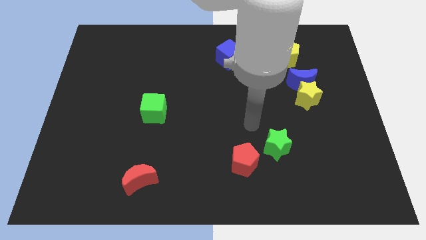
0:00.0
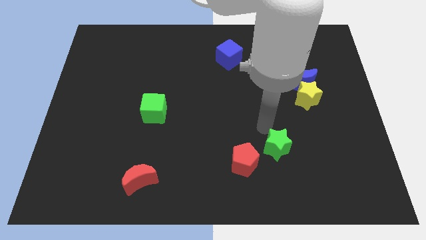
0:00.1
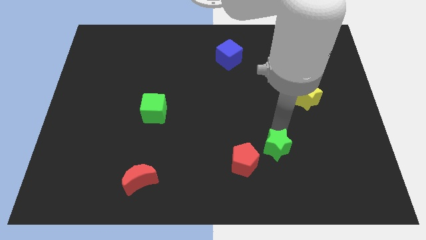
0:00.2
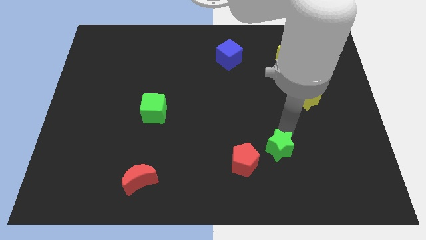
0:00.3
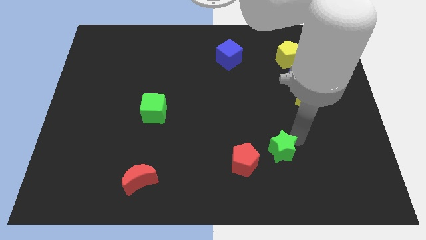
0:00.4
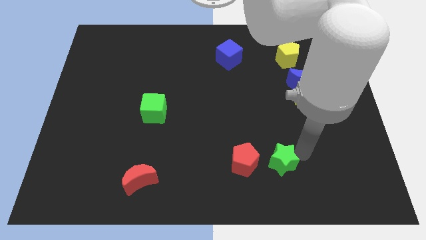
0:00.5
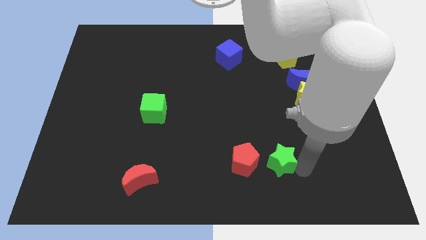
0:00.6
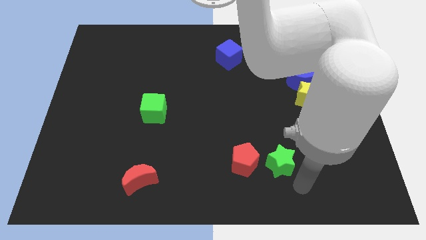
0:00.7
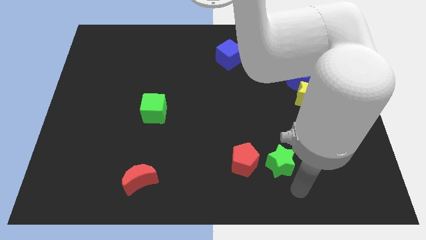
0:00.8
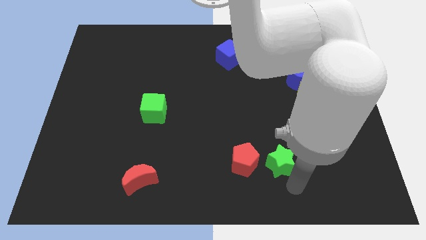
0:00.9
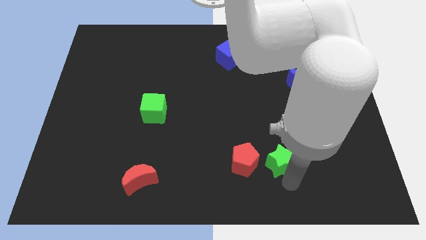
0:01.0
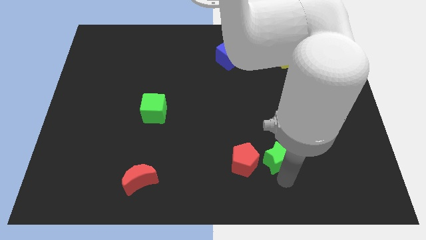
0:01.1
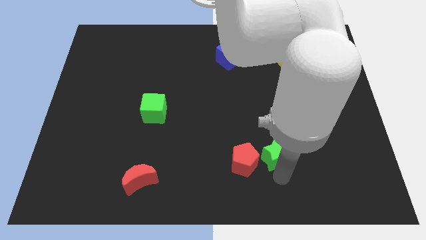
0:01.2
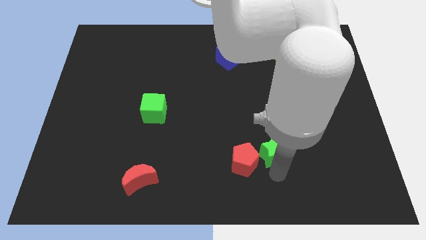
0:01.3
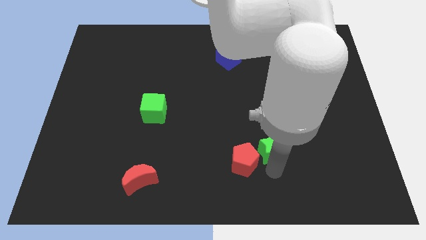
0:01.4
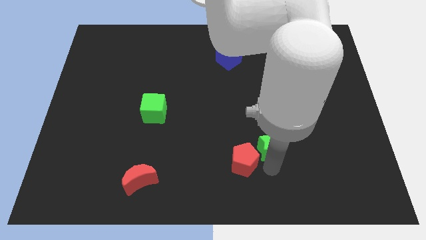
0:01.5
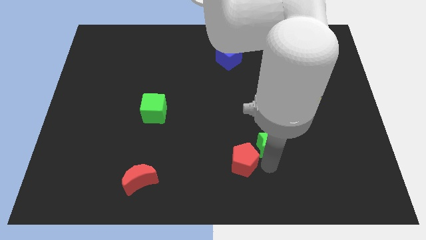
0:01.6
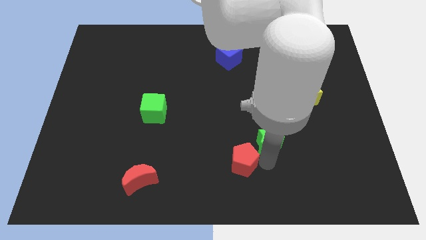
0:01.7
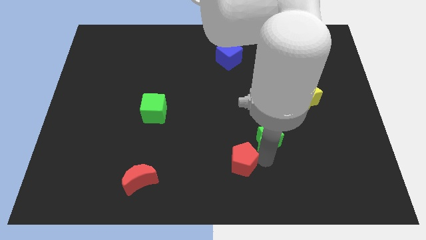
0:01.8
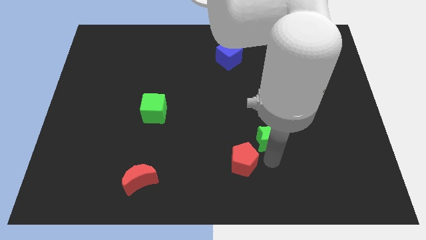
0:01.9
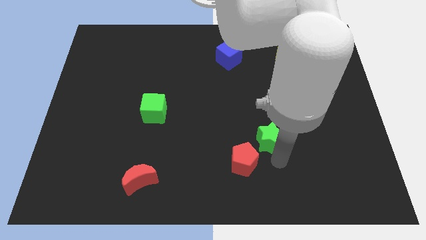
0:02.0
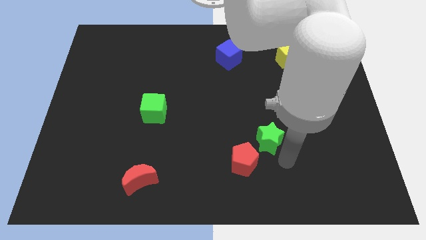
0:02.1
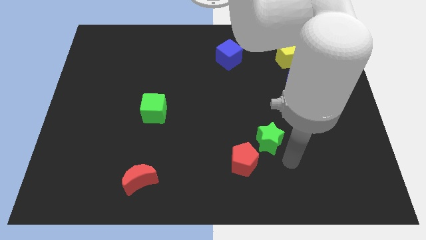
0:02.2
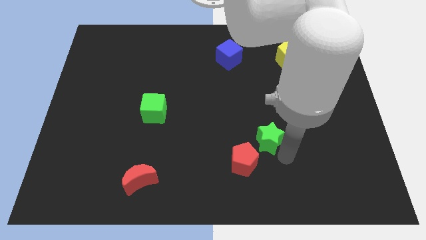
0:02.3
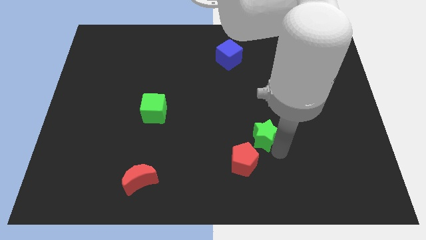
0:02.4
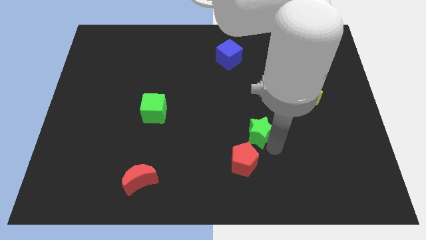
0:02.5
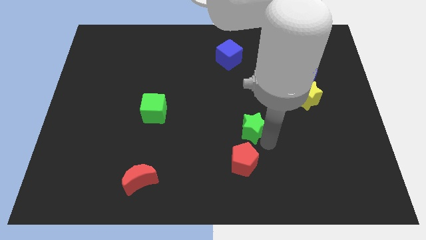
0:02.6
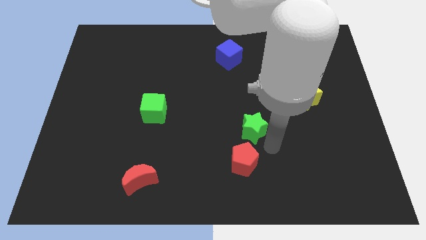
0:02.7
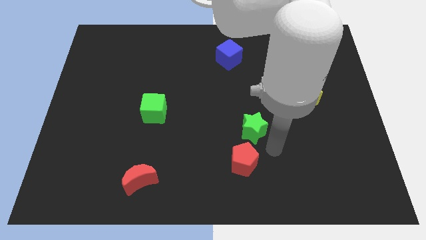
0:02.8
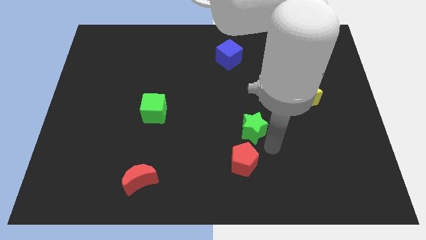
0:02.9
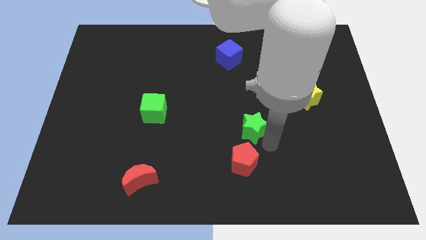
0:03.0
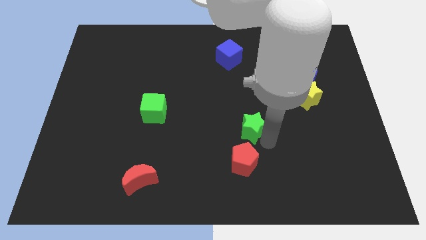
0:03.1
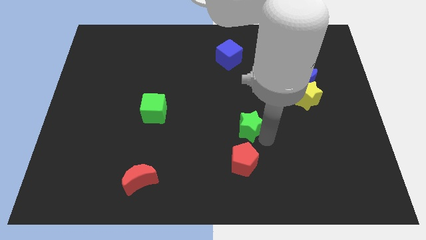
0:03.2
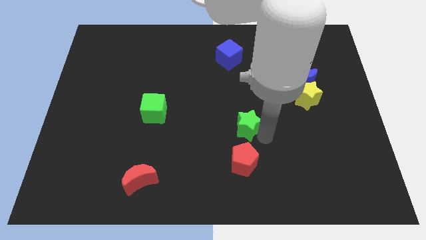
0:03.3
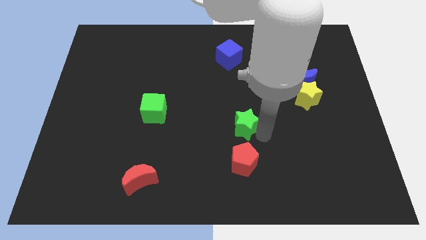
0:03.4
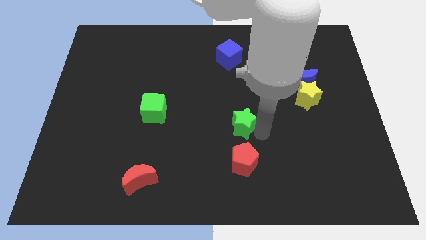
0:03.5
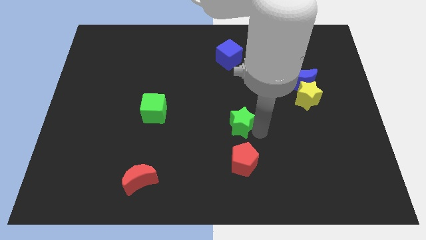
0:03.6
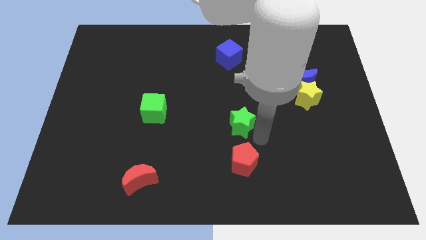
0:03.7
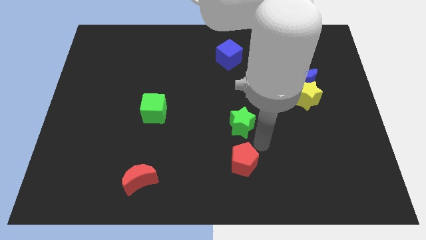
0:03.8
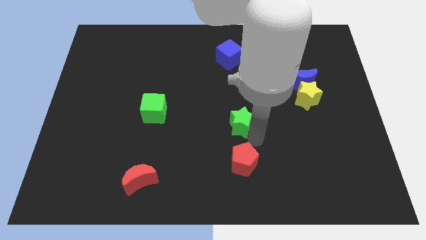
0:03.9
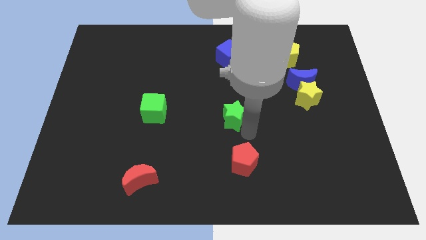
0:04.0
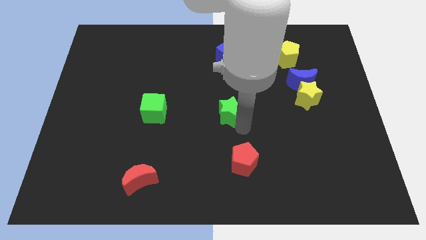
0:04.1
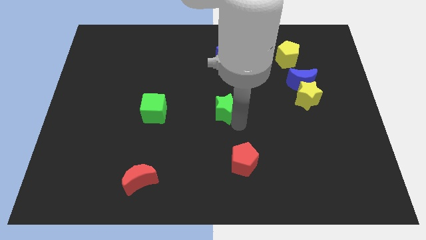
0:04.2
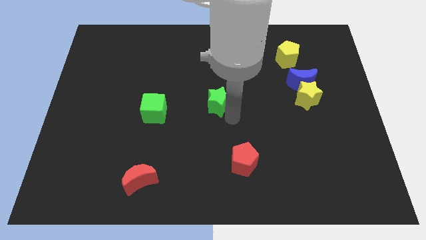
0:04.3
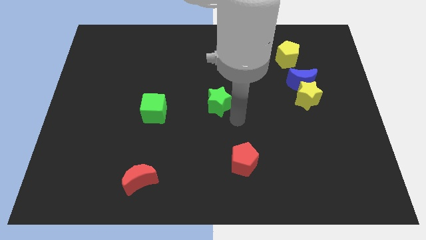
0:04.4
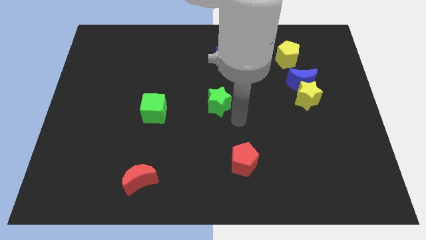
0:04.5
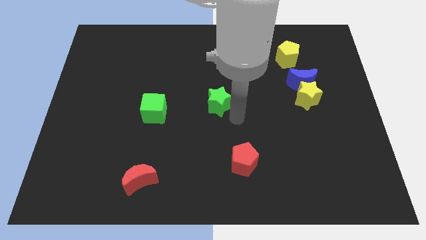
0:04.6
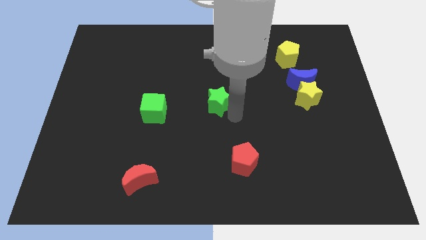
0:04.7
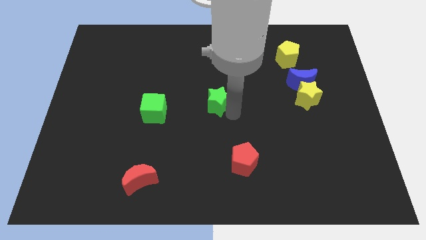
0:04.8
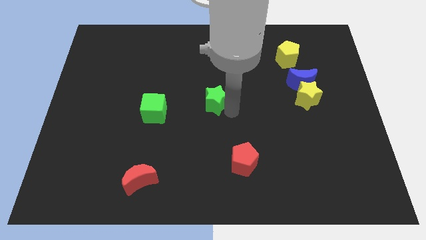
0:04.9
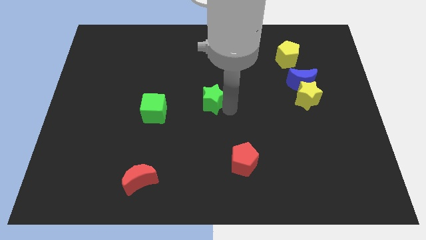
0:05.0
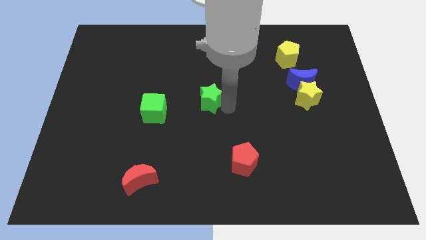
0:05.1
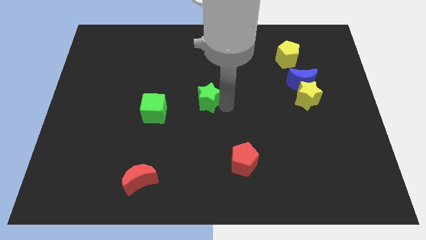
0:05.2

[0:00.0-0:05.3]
push the green star upwards and to the left diagonally

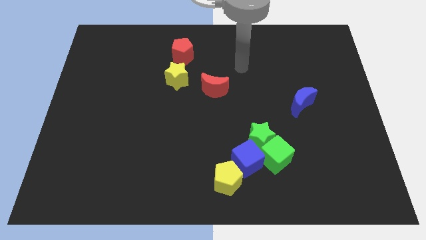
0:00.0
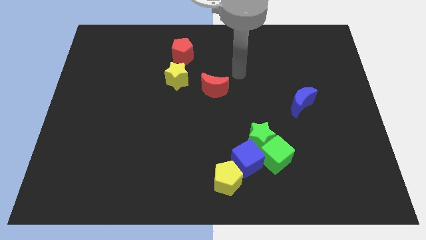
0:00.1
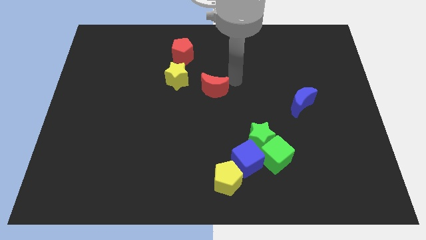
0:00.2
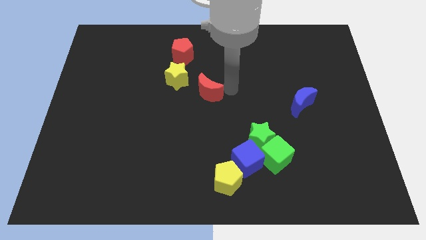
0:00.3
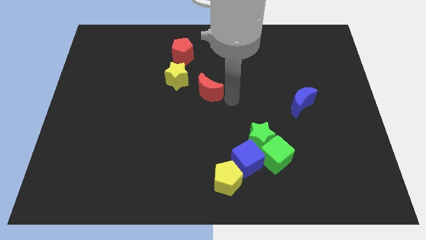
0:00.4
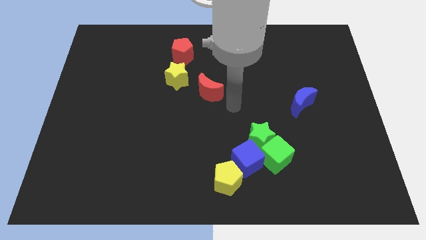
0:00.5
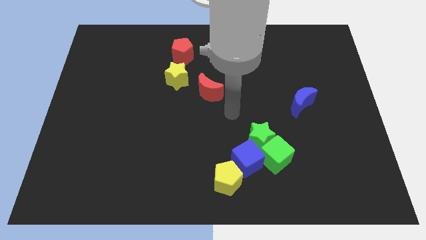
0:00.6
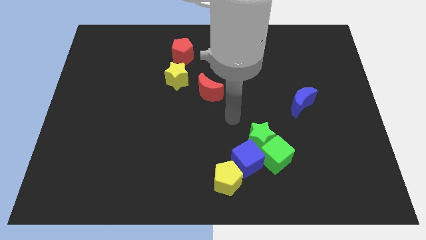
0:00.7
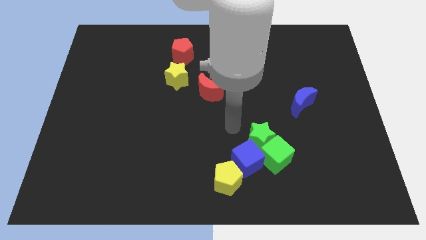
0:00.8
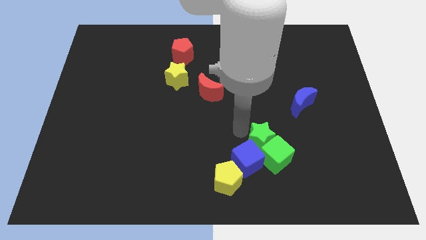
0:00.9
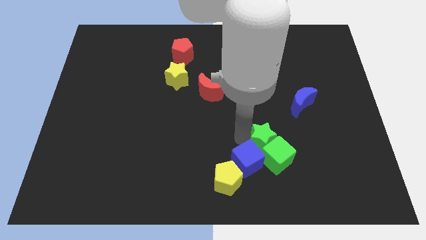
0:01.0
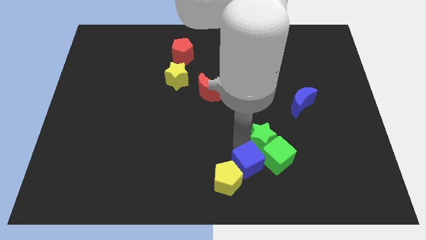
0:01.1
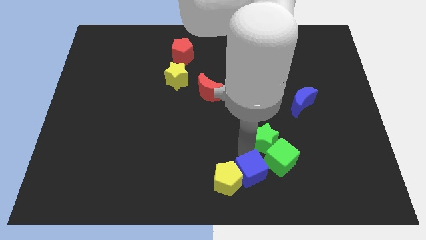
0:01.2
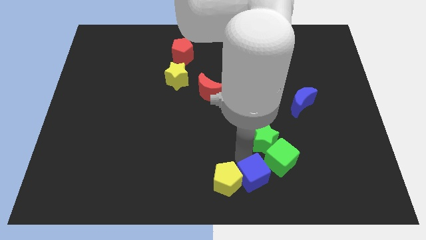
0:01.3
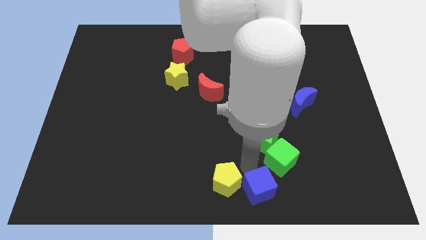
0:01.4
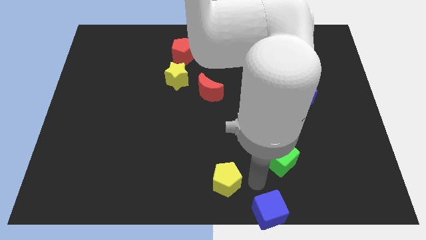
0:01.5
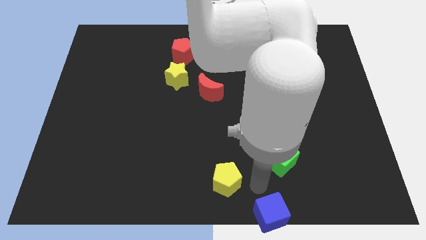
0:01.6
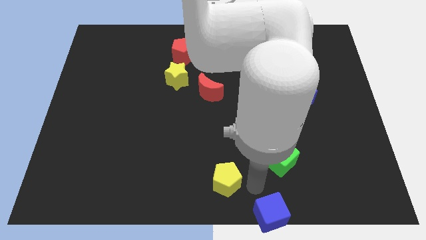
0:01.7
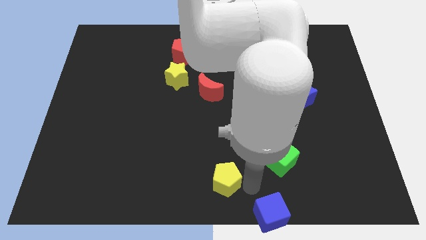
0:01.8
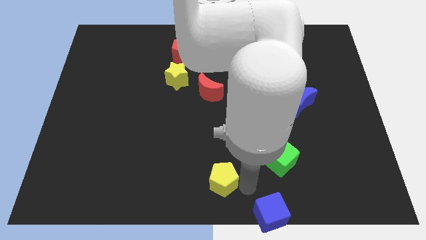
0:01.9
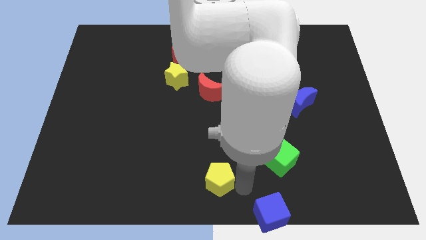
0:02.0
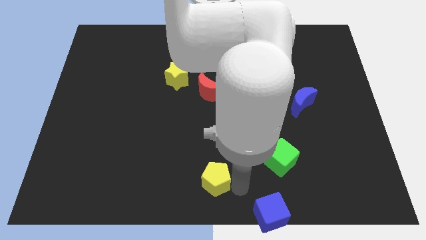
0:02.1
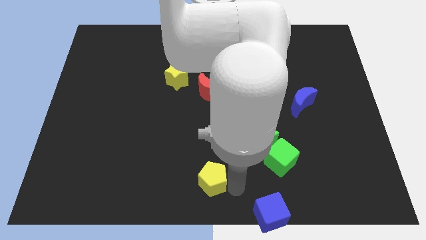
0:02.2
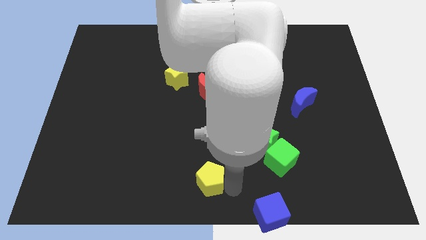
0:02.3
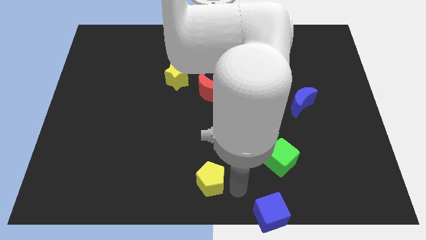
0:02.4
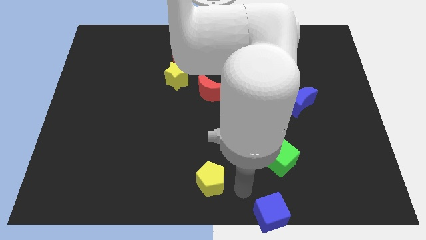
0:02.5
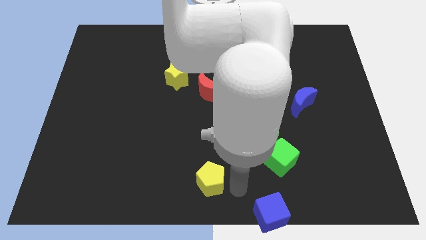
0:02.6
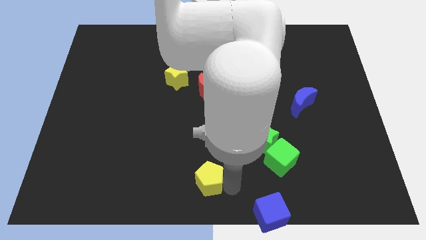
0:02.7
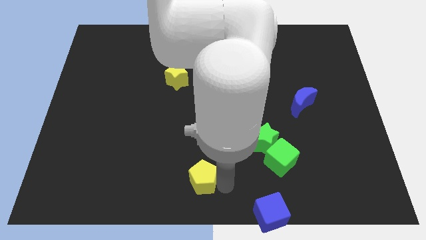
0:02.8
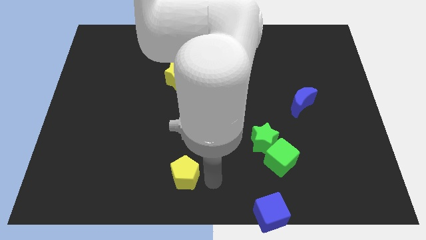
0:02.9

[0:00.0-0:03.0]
push the yellow pentagon somewhat left
